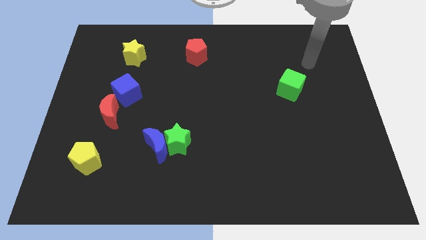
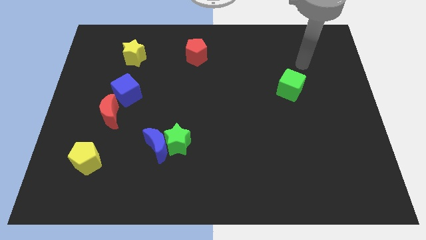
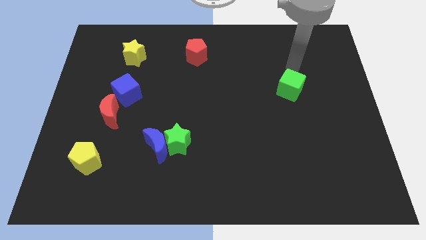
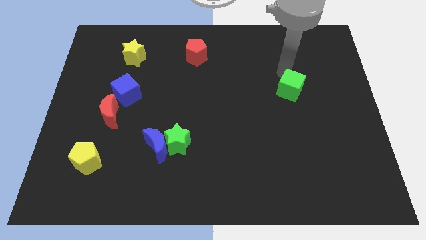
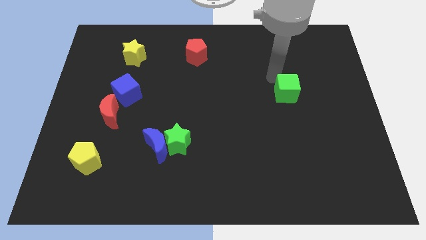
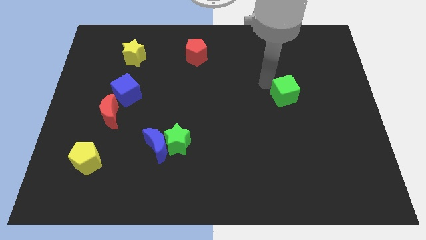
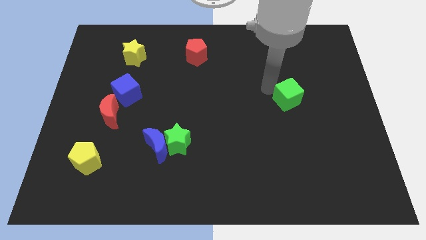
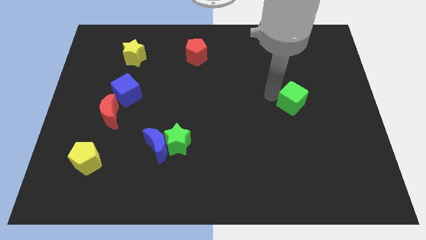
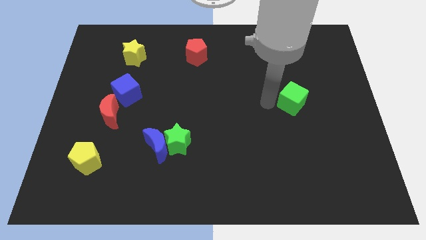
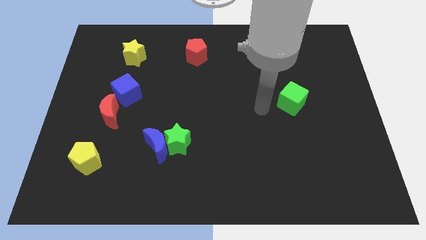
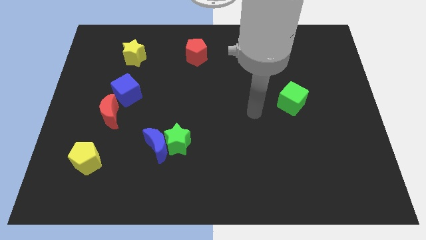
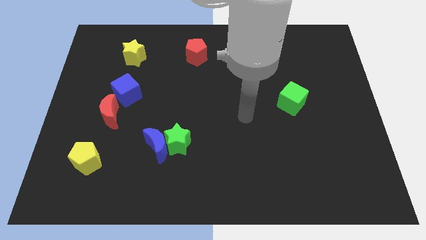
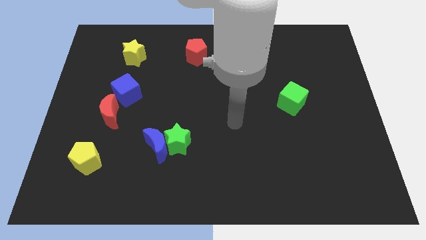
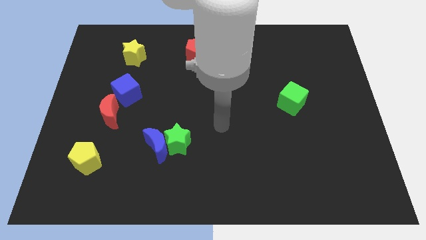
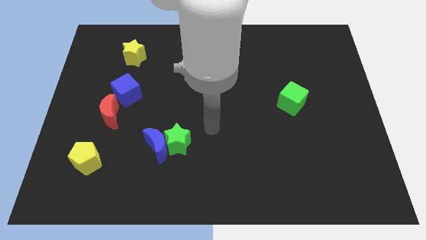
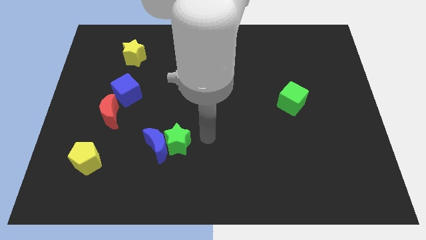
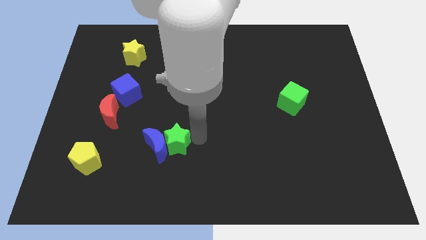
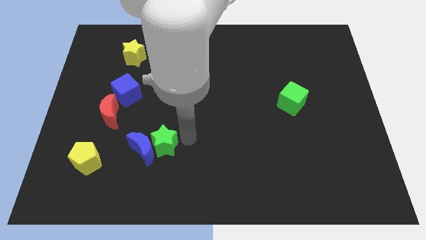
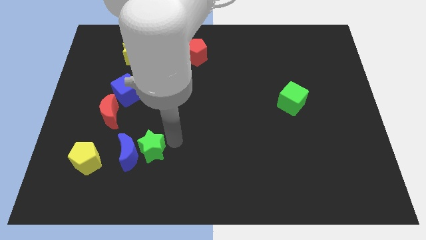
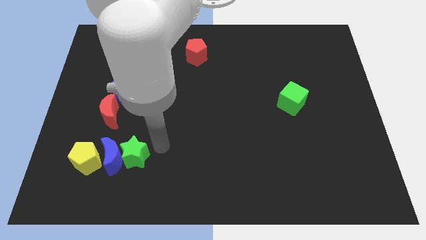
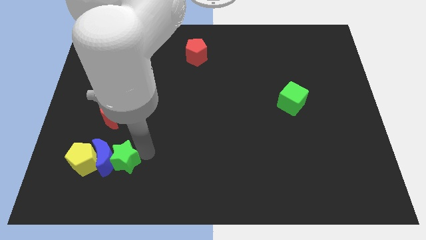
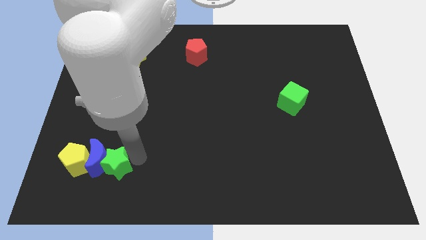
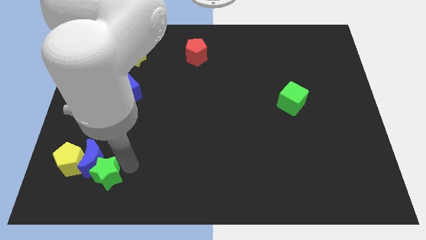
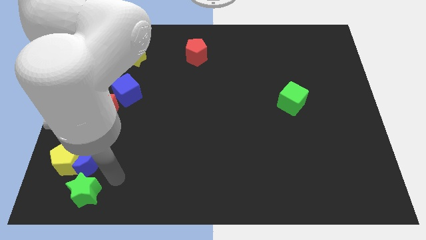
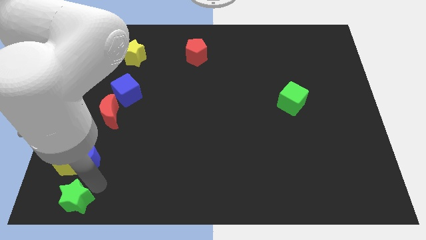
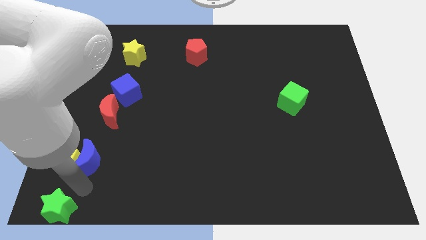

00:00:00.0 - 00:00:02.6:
separate the blue moon from the green star

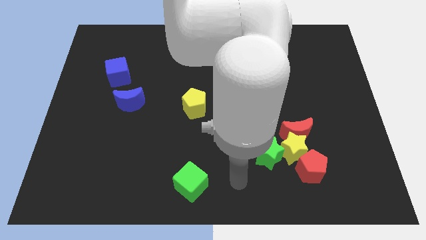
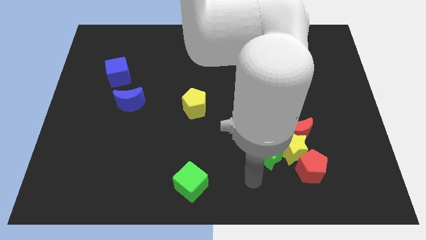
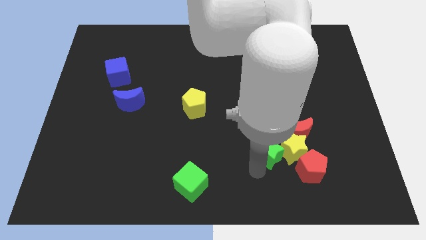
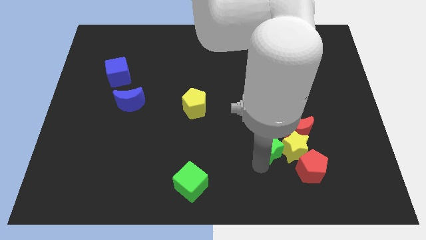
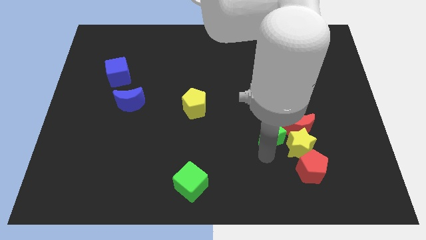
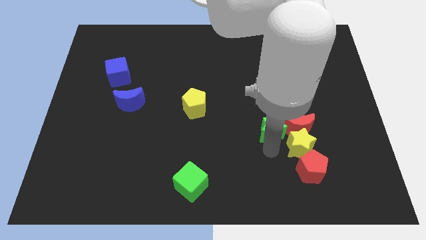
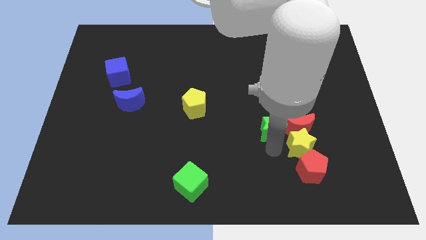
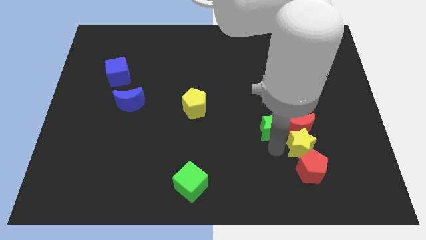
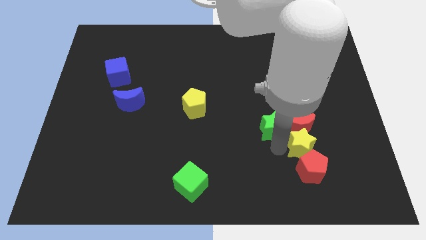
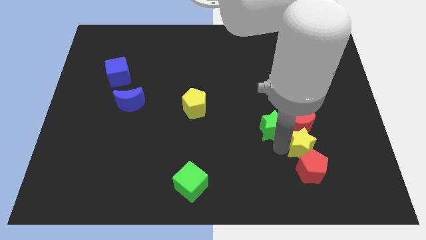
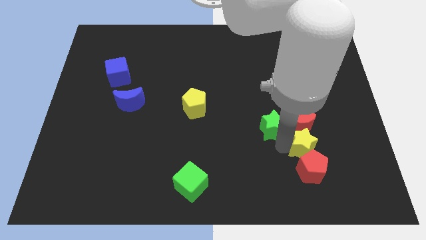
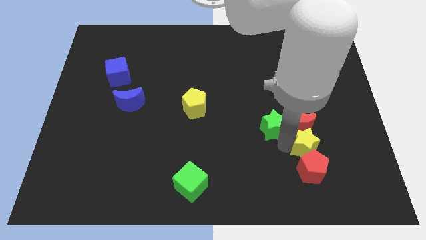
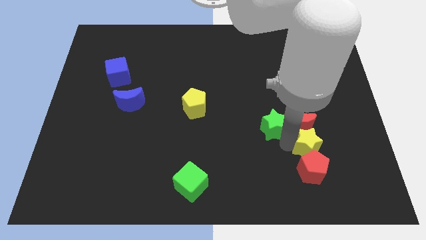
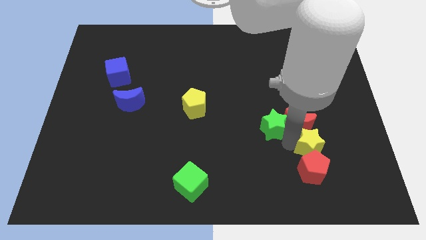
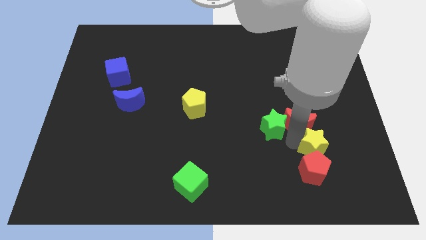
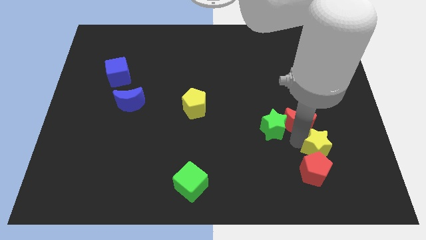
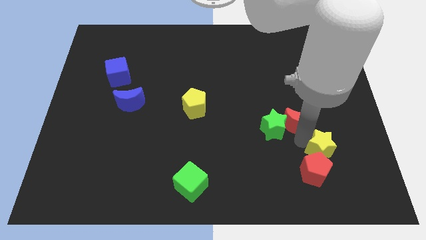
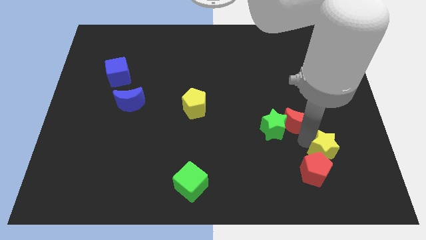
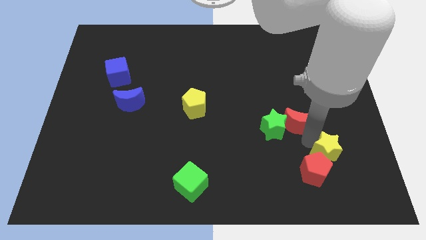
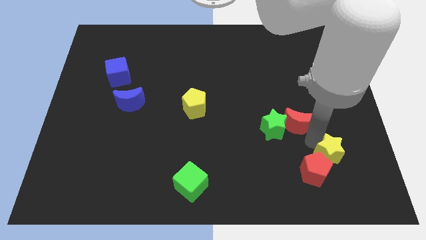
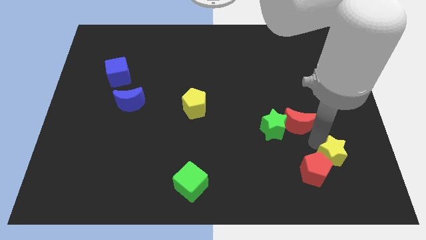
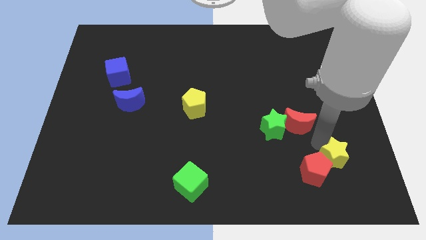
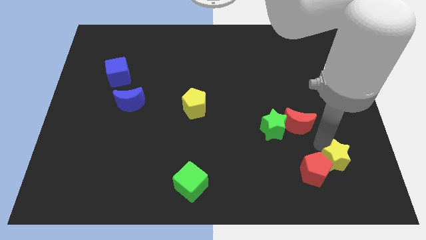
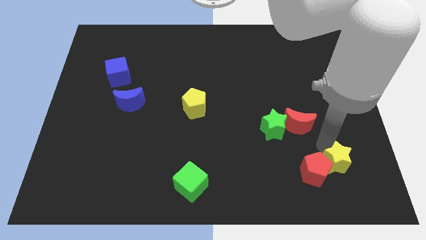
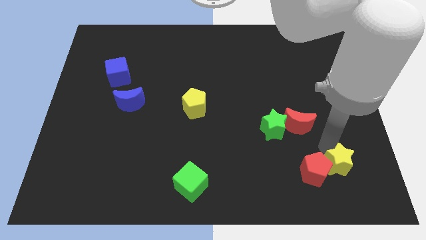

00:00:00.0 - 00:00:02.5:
move the yellow star away from the red moon, red pentagon, and green star

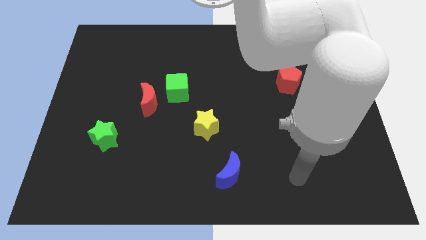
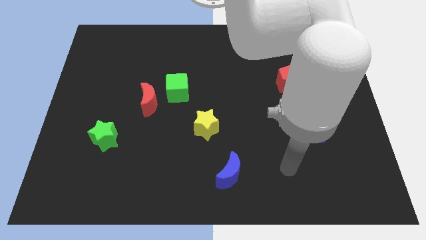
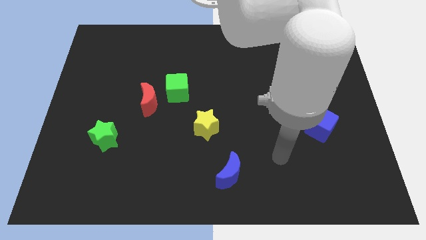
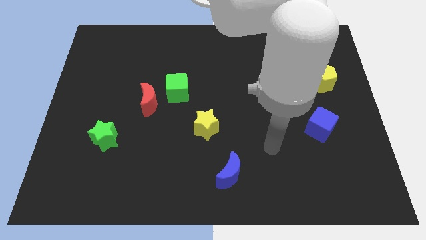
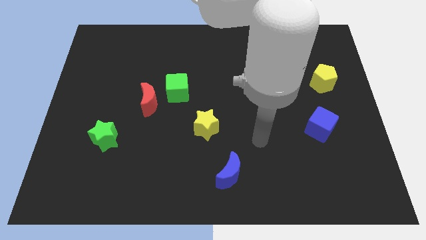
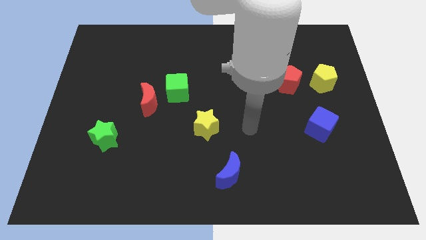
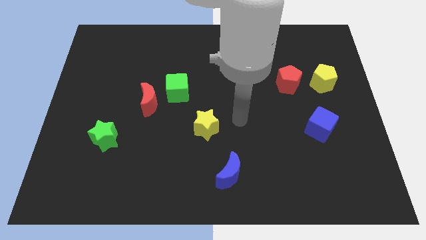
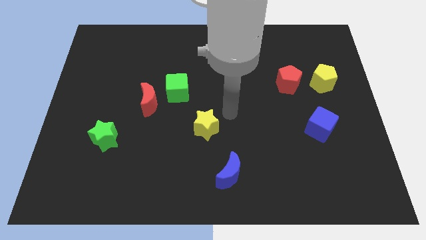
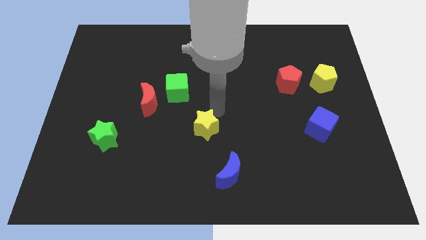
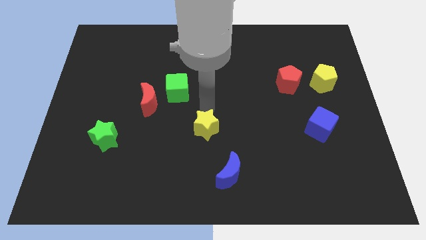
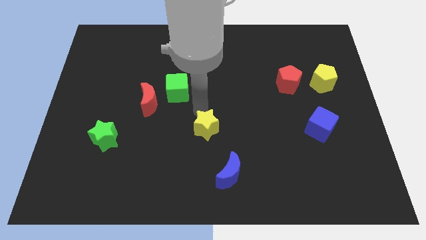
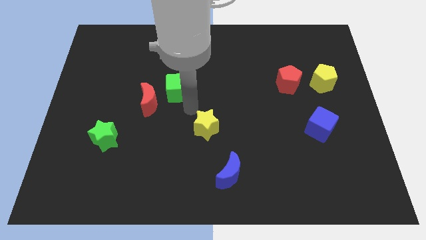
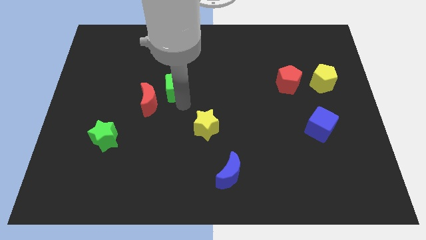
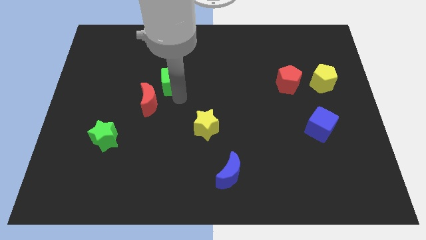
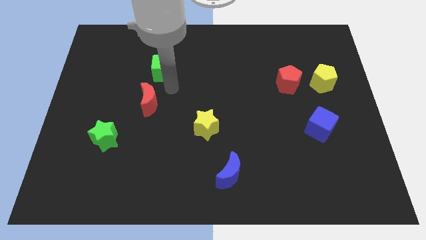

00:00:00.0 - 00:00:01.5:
separate the red moon from the green cube

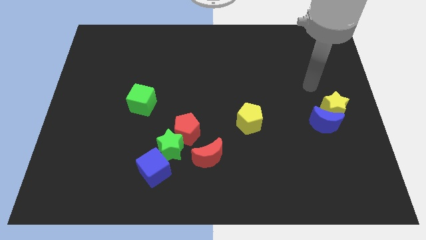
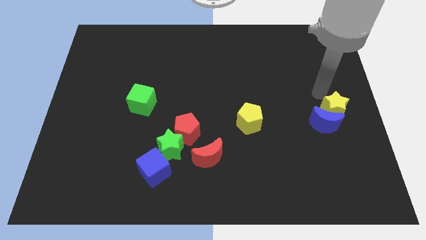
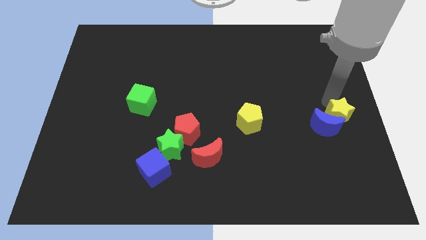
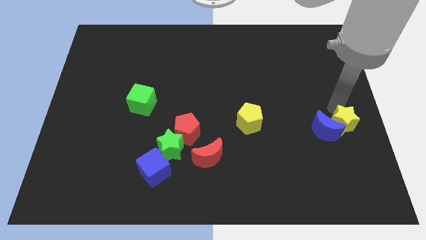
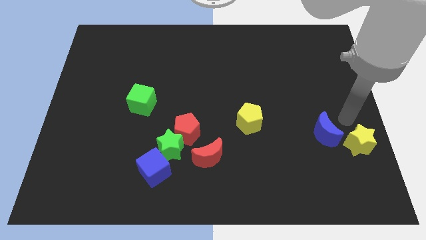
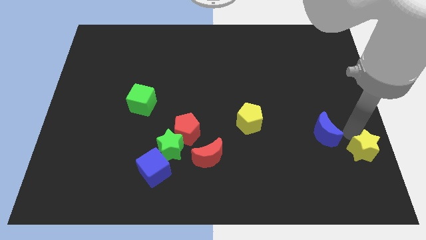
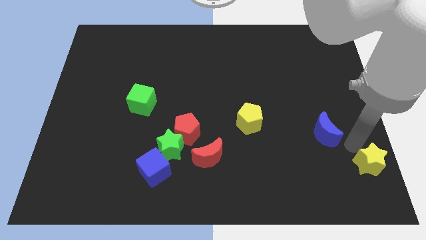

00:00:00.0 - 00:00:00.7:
separate the blue moon from the yellow star

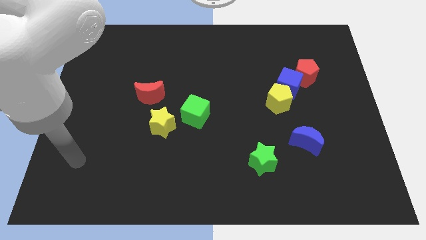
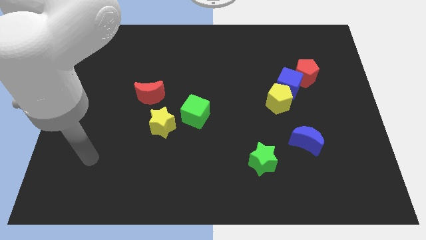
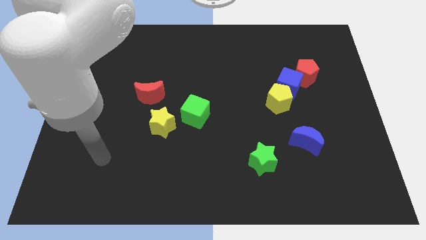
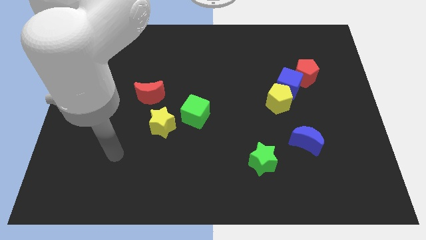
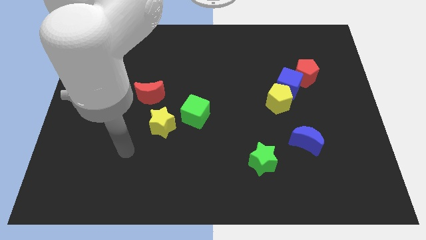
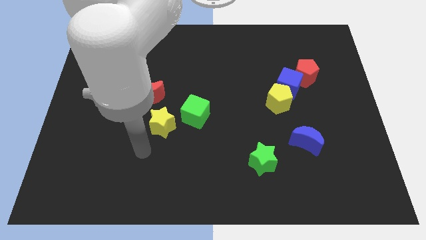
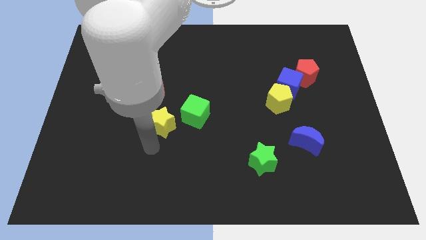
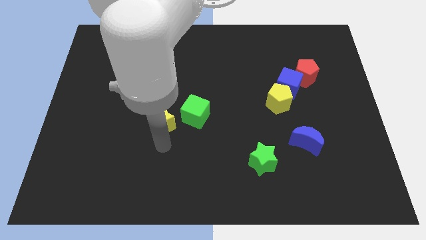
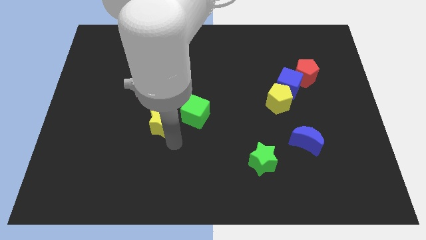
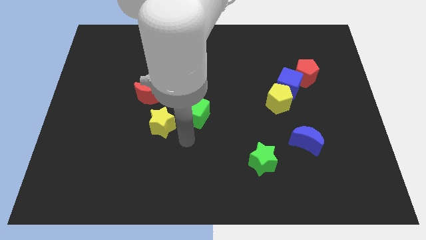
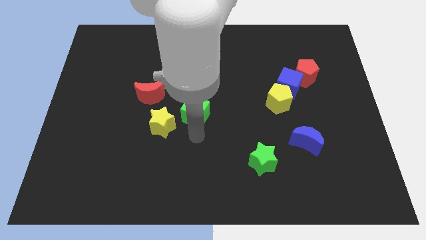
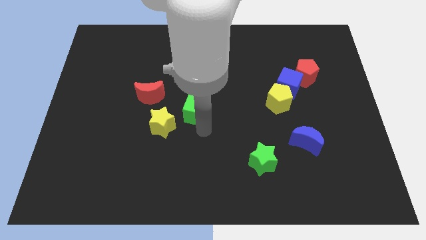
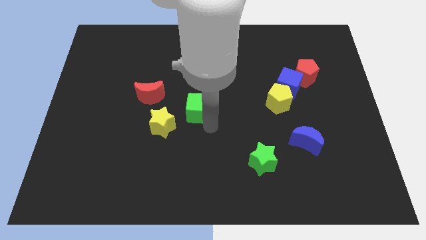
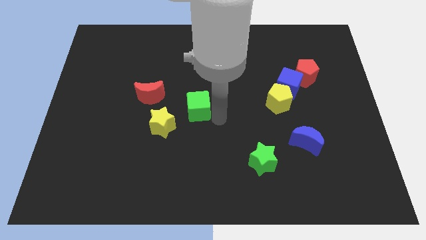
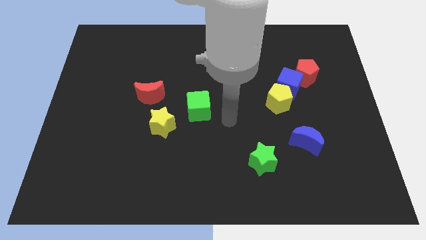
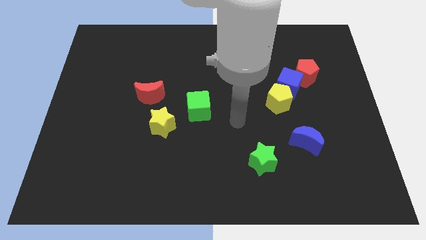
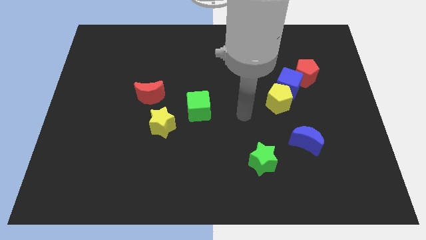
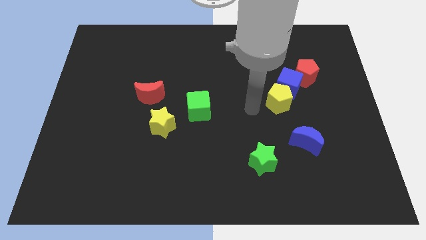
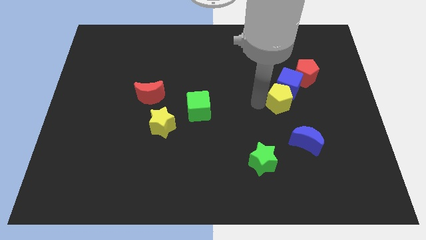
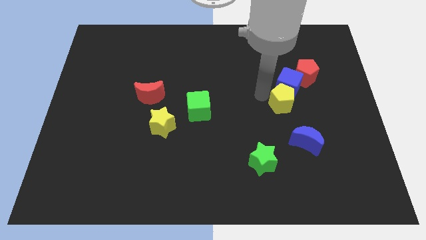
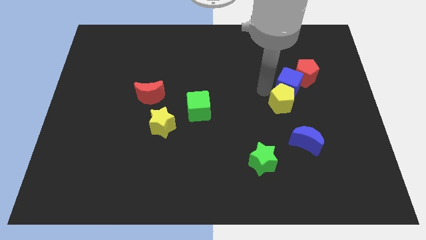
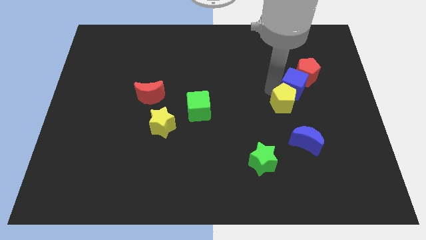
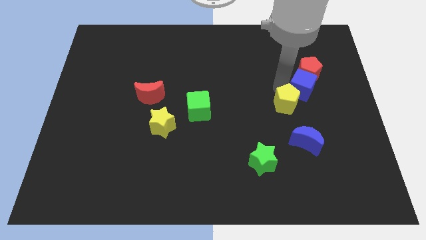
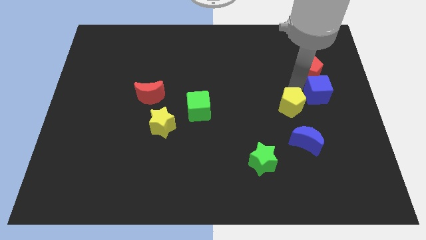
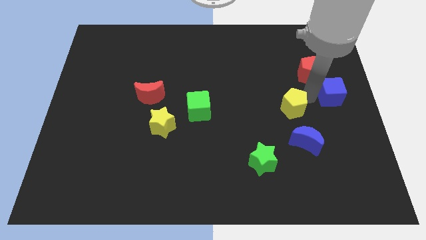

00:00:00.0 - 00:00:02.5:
separate the yellow pentagon from the blue cube
